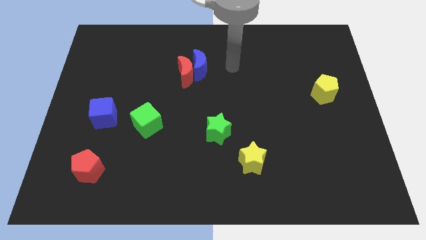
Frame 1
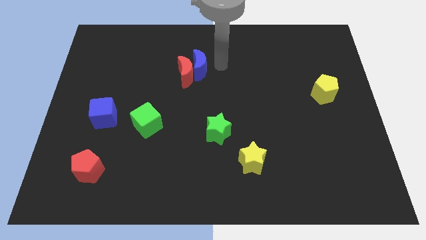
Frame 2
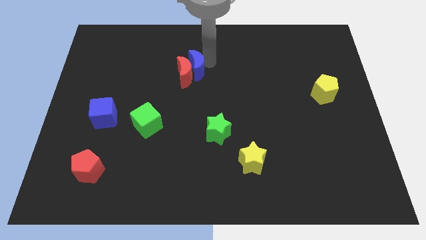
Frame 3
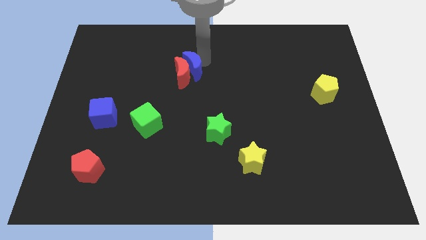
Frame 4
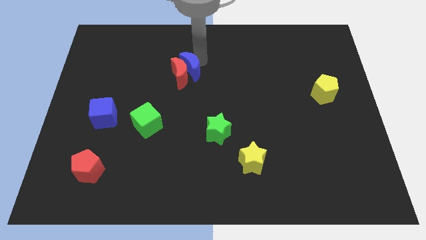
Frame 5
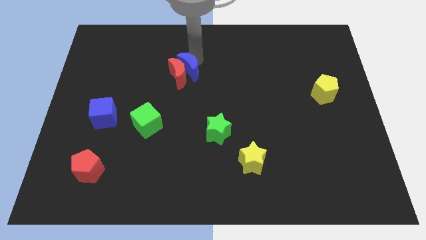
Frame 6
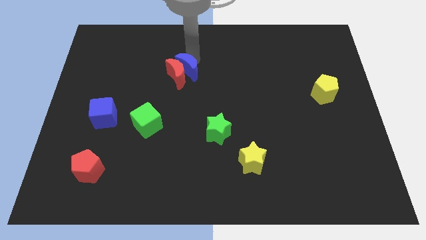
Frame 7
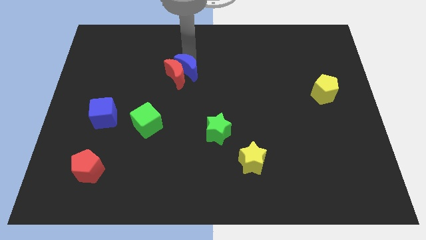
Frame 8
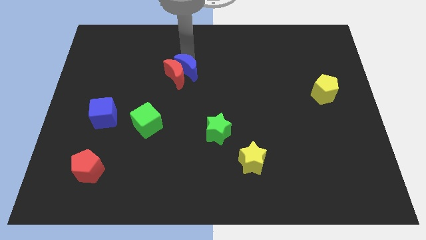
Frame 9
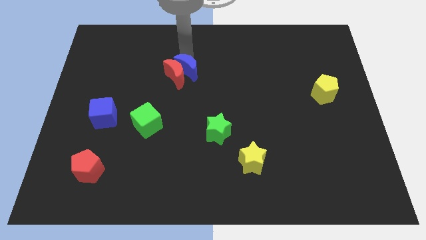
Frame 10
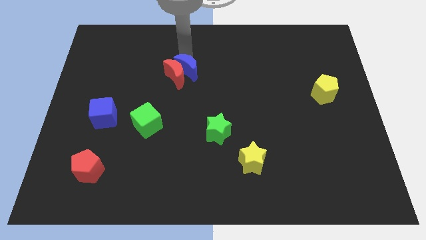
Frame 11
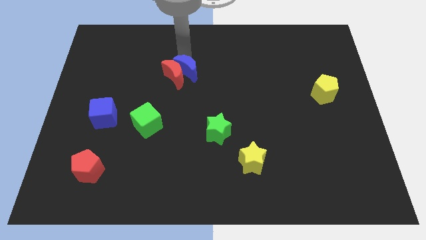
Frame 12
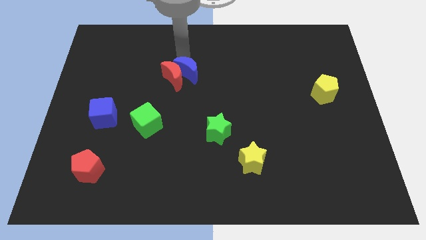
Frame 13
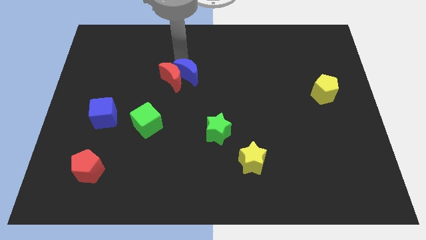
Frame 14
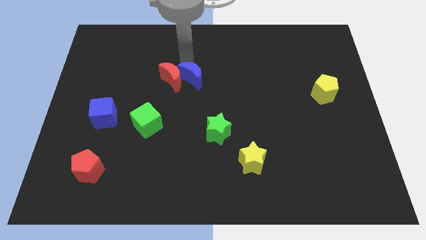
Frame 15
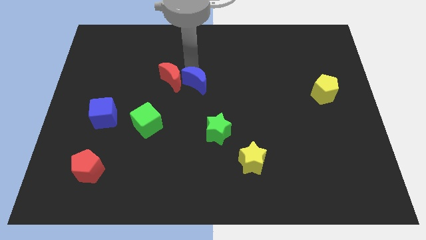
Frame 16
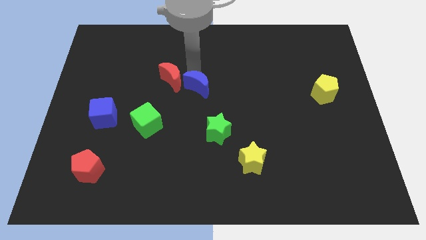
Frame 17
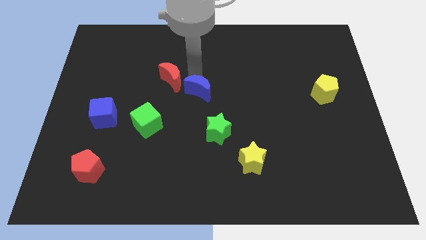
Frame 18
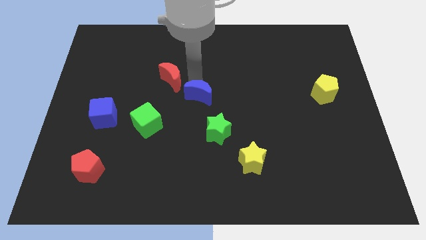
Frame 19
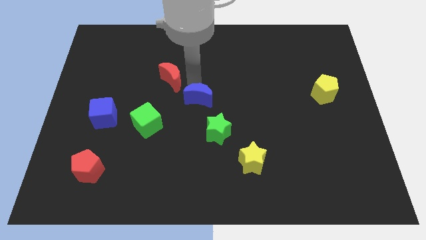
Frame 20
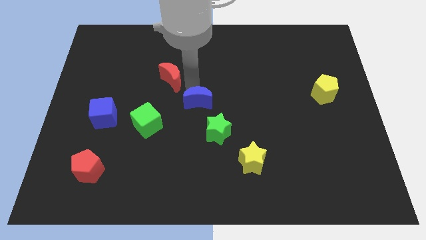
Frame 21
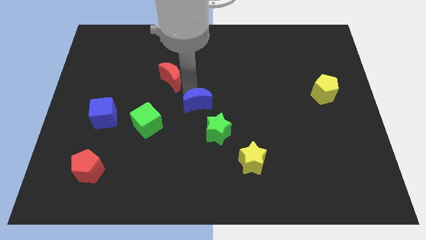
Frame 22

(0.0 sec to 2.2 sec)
pull the red moon apart from the blue moon

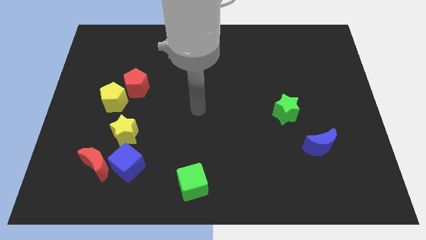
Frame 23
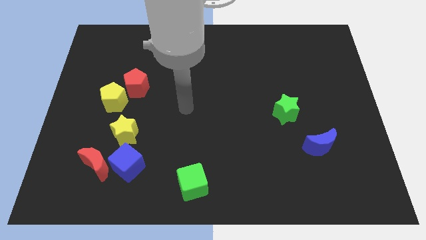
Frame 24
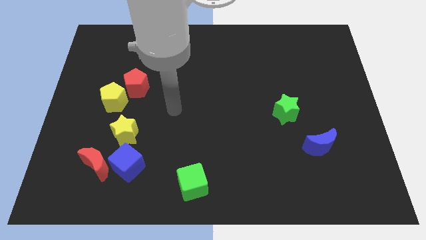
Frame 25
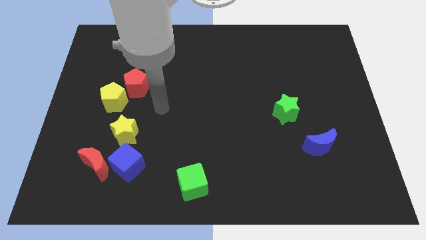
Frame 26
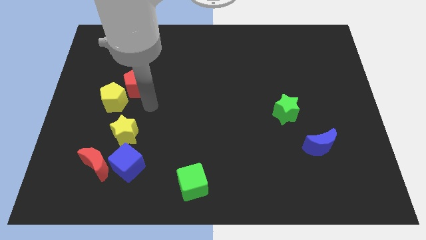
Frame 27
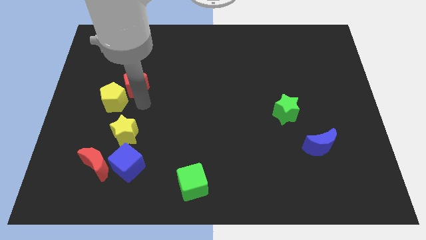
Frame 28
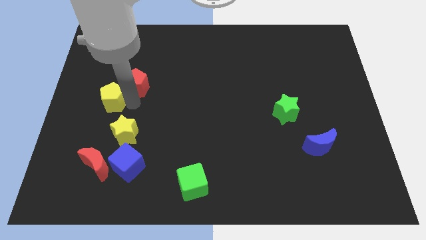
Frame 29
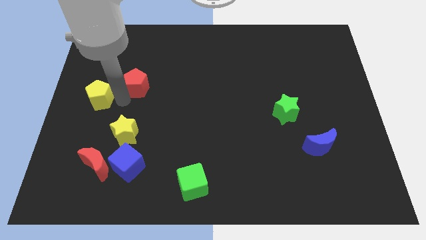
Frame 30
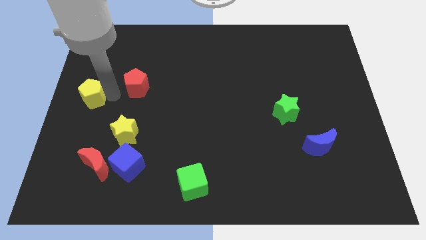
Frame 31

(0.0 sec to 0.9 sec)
move the red pentagon away from the yellow pentagon

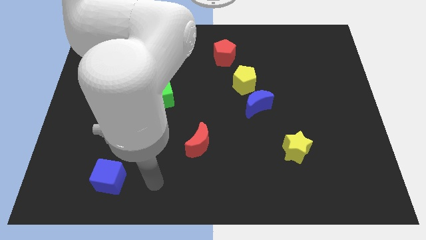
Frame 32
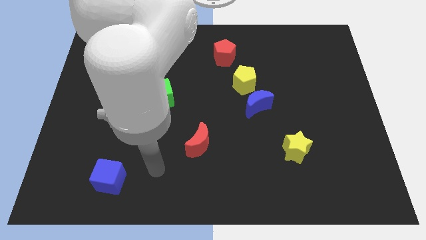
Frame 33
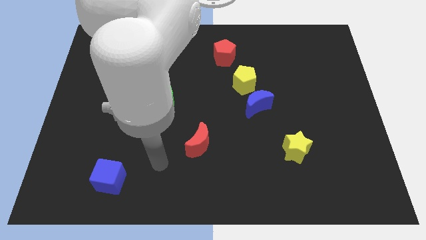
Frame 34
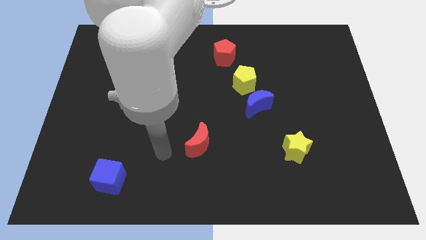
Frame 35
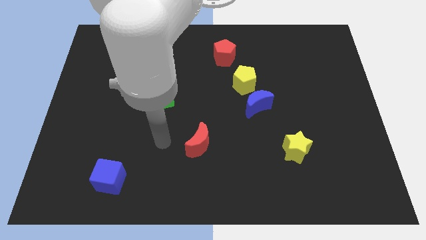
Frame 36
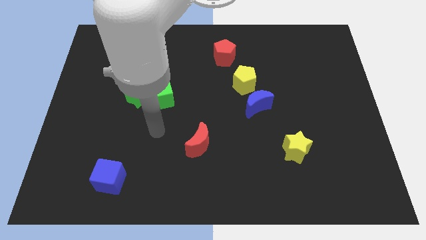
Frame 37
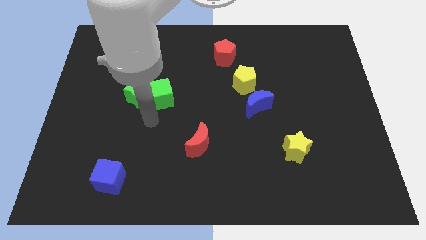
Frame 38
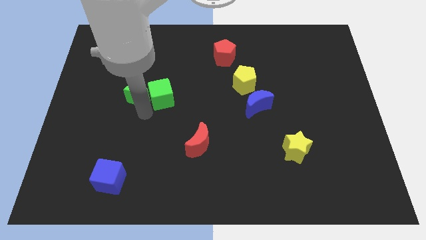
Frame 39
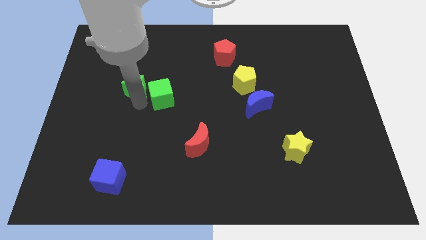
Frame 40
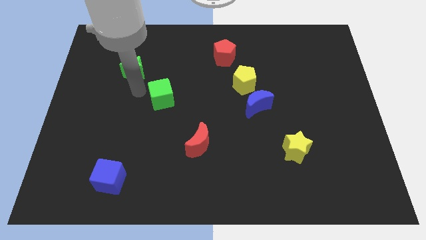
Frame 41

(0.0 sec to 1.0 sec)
separate the green cube from the green star

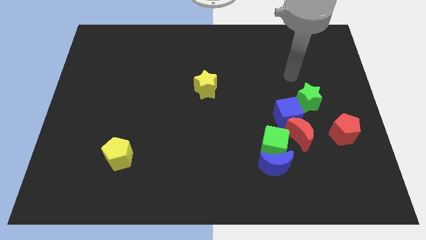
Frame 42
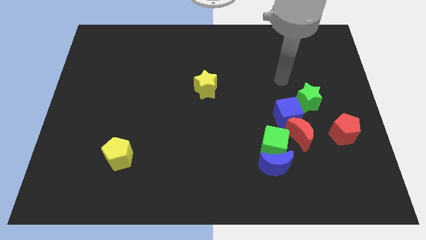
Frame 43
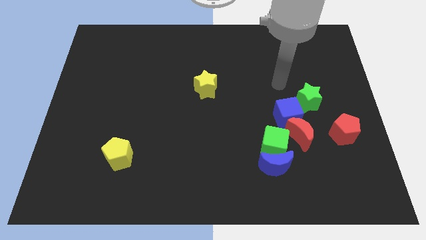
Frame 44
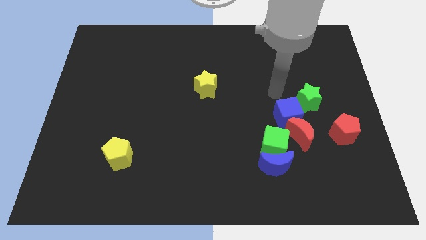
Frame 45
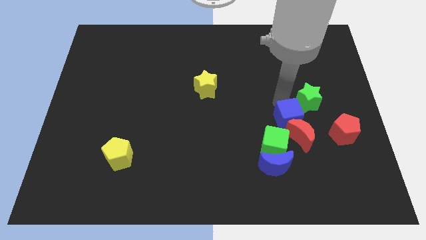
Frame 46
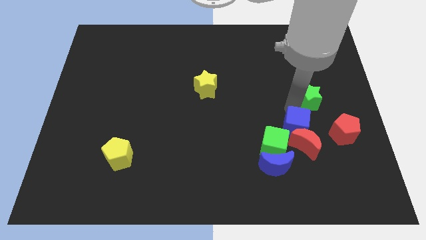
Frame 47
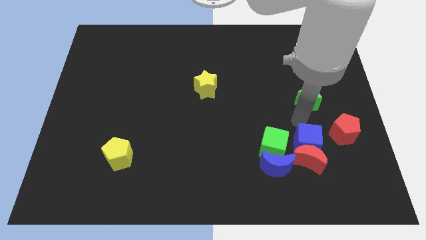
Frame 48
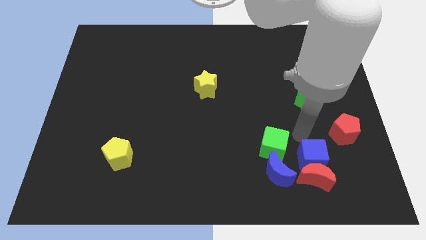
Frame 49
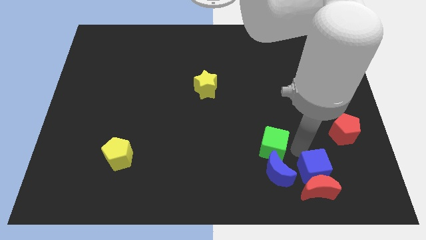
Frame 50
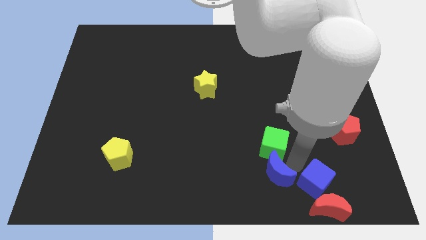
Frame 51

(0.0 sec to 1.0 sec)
move the green cube away from the blue moon, red moon, and blue cube

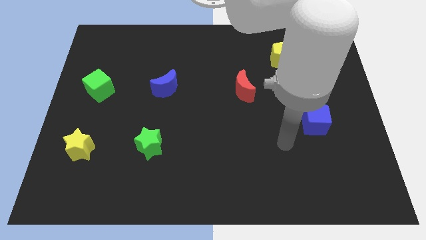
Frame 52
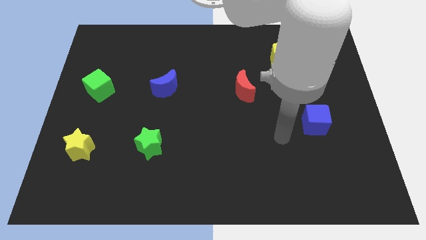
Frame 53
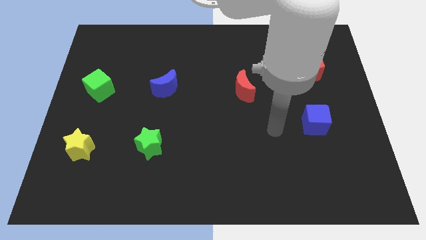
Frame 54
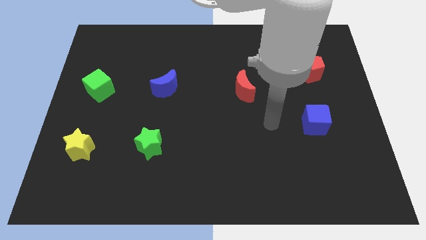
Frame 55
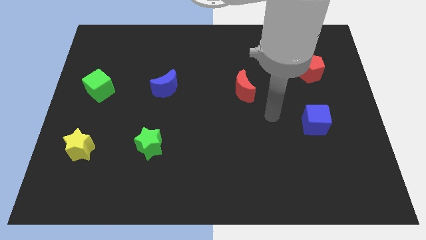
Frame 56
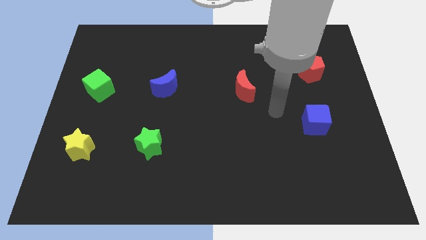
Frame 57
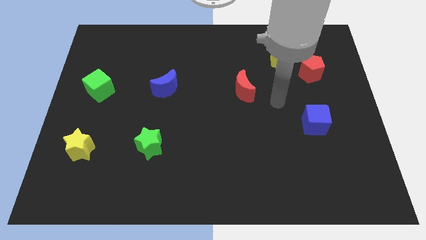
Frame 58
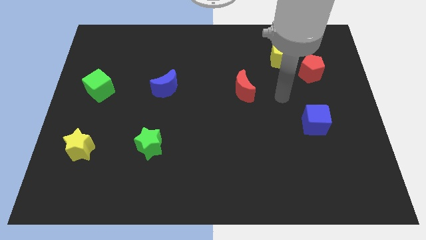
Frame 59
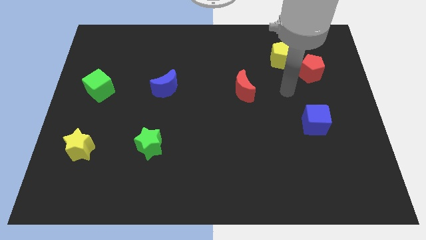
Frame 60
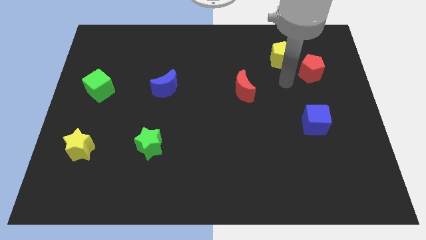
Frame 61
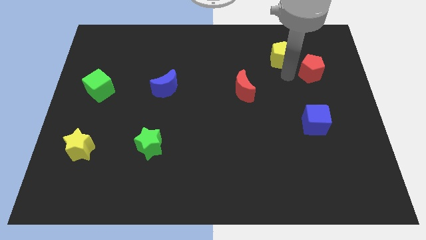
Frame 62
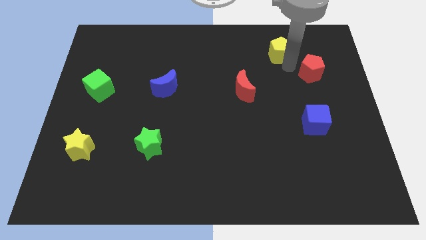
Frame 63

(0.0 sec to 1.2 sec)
separate the red pentagon from the yellow pentagon

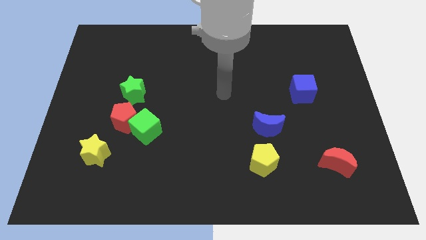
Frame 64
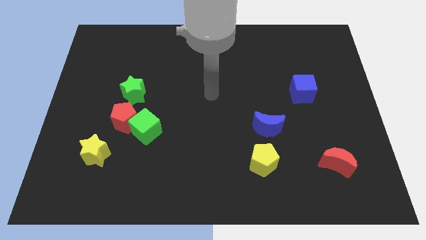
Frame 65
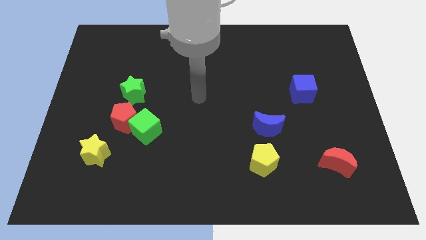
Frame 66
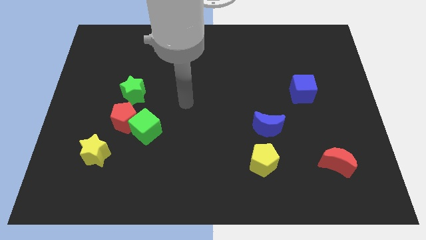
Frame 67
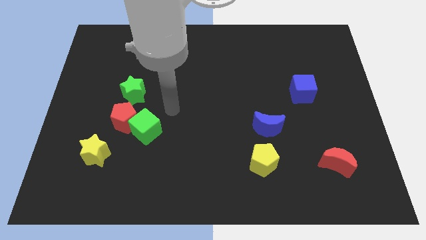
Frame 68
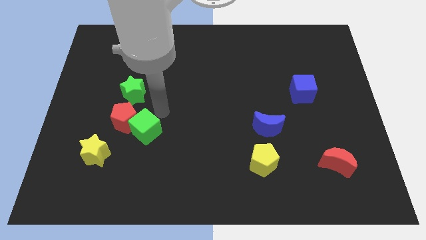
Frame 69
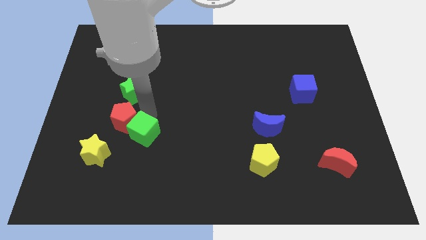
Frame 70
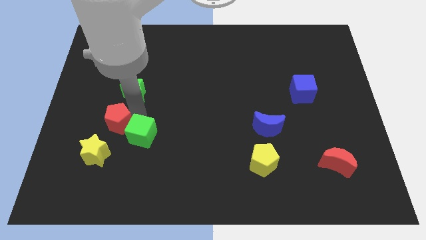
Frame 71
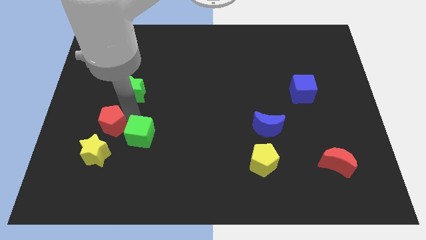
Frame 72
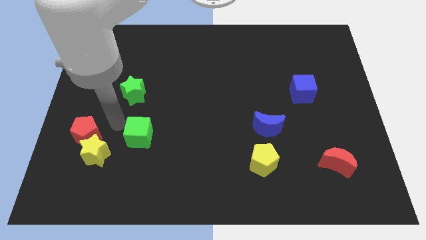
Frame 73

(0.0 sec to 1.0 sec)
pull the green cube apart from the red pentagon

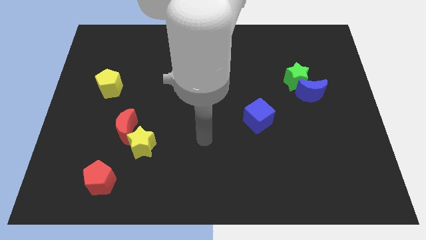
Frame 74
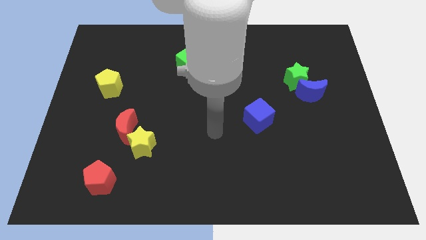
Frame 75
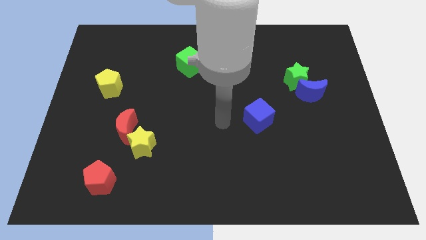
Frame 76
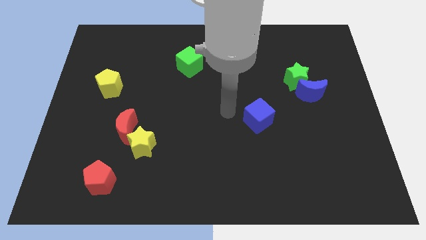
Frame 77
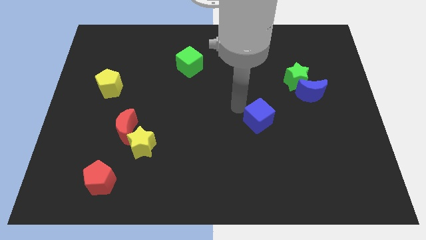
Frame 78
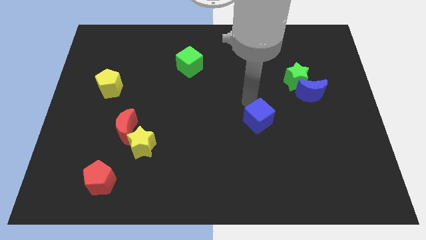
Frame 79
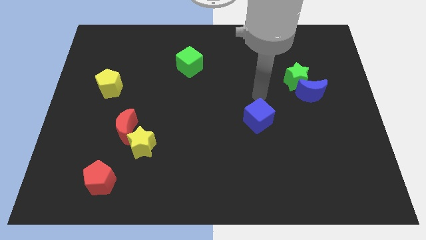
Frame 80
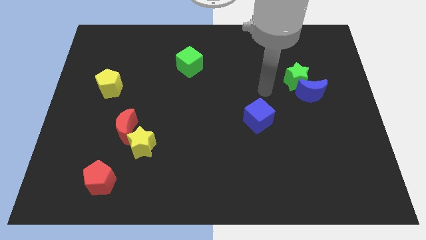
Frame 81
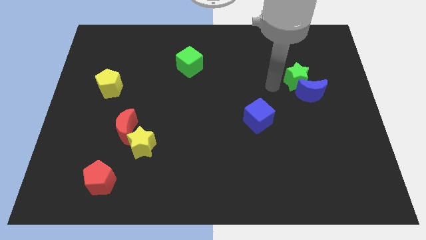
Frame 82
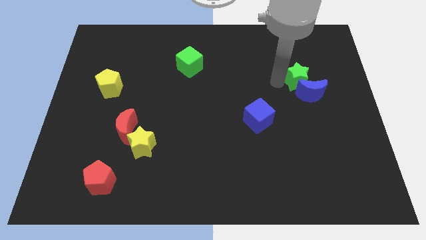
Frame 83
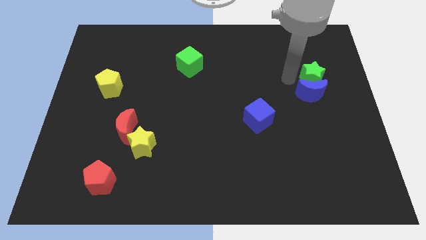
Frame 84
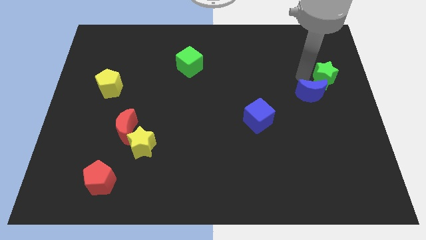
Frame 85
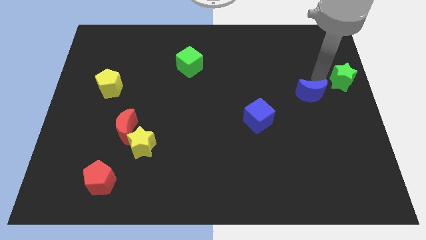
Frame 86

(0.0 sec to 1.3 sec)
move the blue moon away from the green star

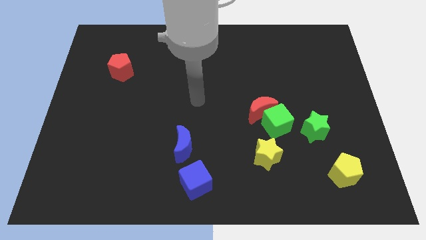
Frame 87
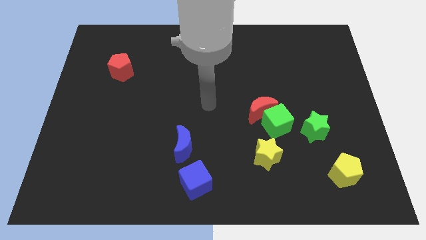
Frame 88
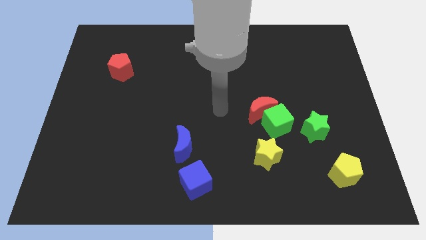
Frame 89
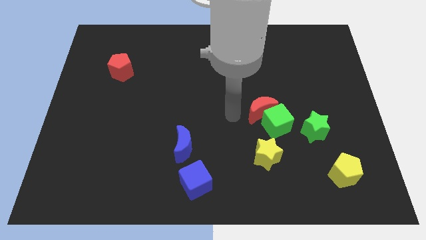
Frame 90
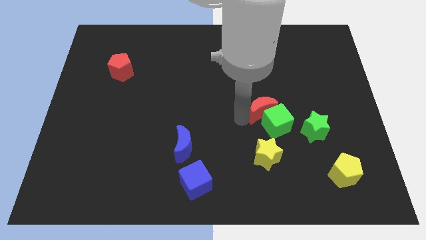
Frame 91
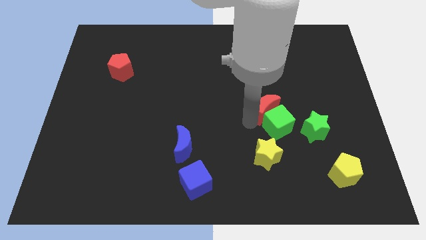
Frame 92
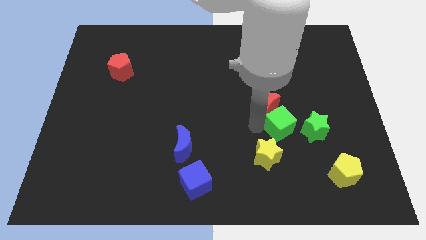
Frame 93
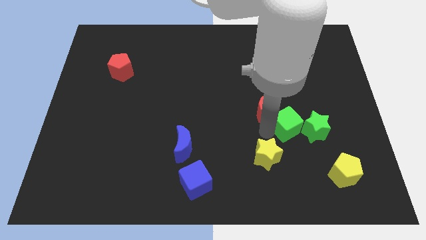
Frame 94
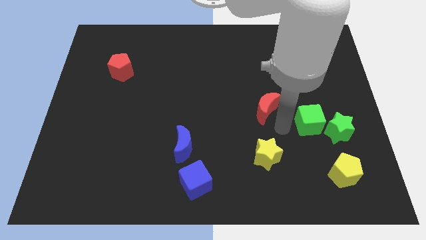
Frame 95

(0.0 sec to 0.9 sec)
separate the red moon from the green cube
